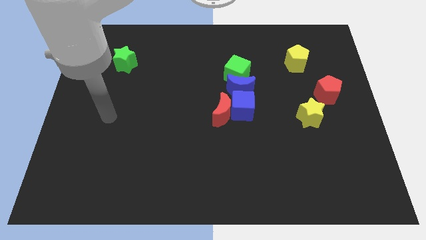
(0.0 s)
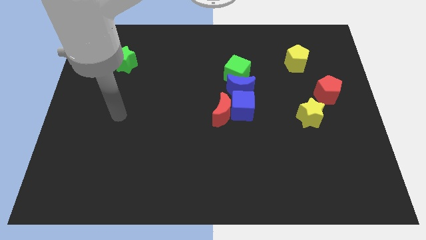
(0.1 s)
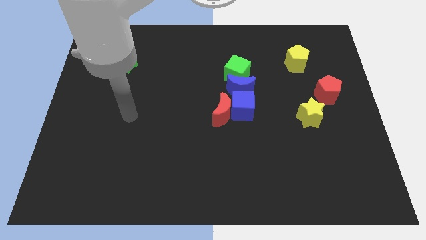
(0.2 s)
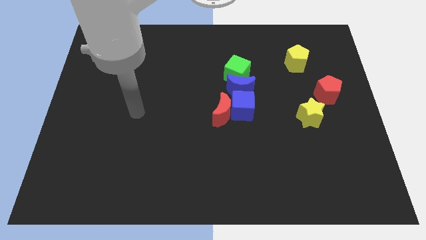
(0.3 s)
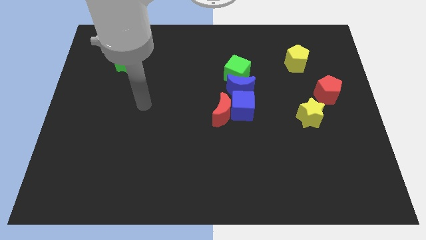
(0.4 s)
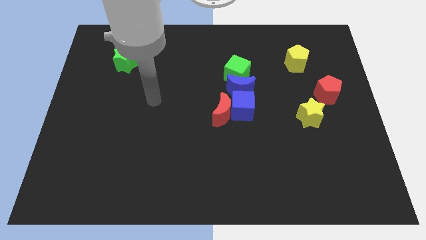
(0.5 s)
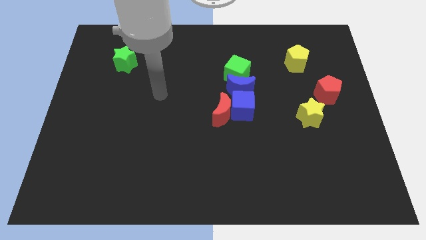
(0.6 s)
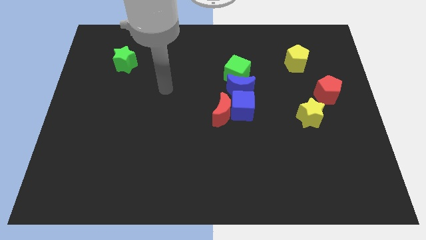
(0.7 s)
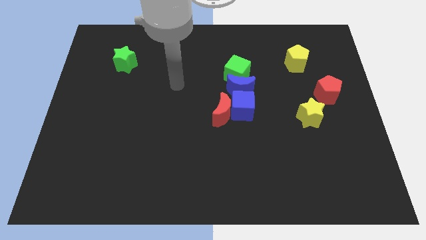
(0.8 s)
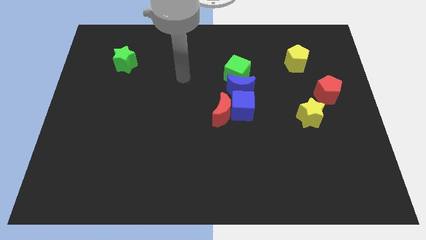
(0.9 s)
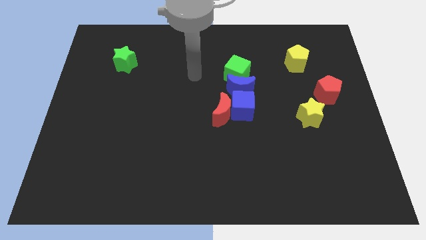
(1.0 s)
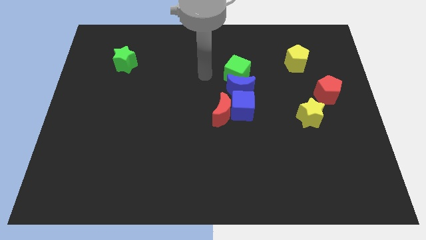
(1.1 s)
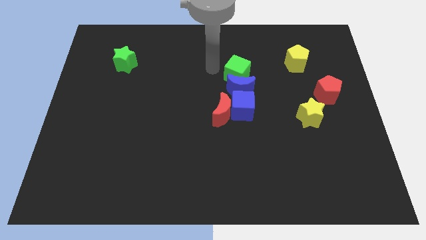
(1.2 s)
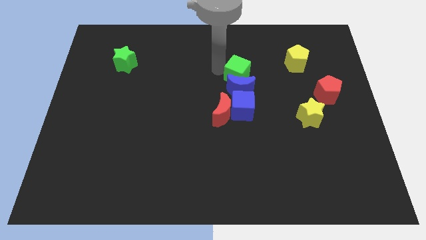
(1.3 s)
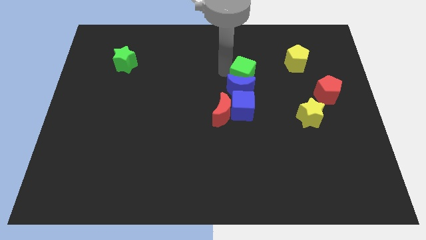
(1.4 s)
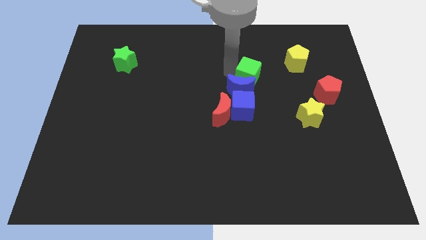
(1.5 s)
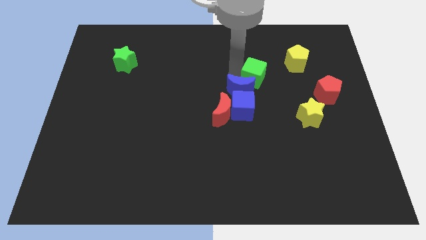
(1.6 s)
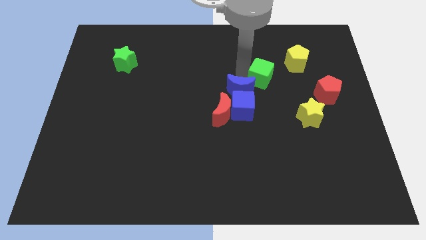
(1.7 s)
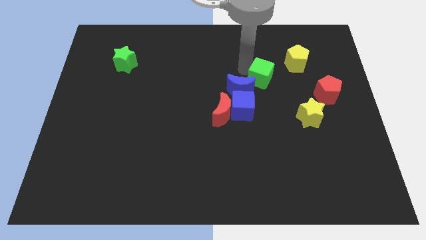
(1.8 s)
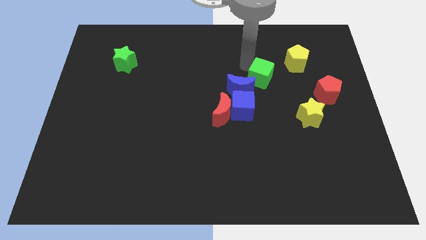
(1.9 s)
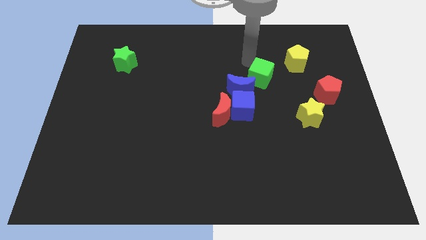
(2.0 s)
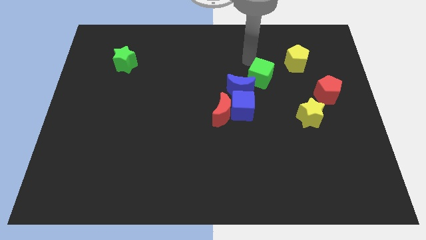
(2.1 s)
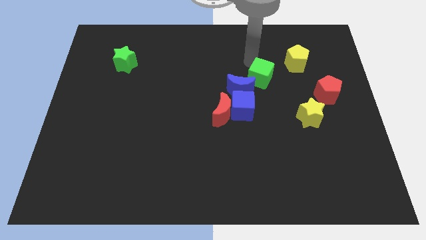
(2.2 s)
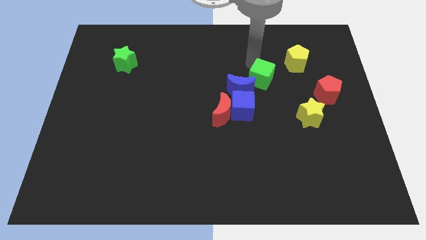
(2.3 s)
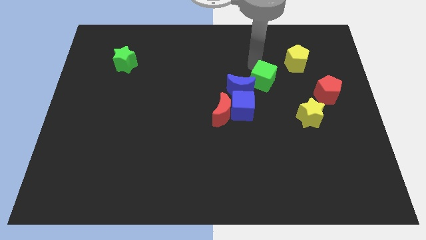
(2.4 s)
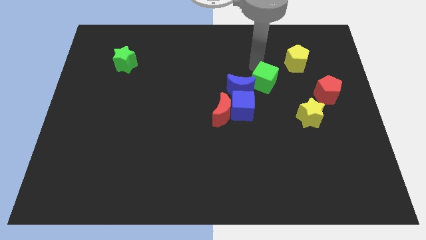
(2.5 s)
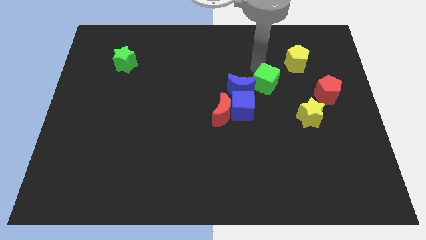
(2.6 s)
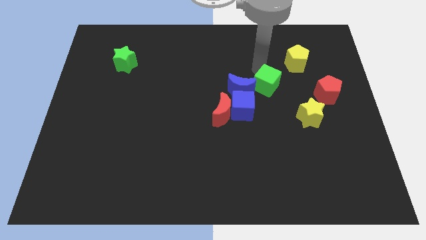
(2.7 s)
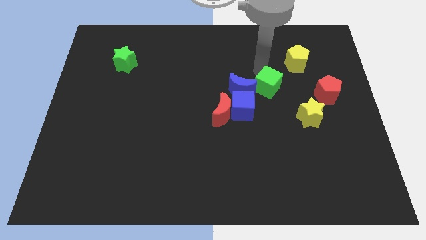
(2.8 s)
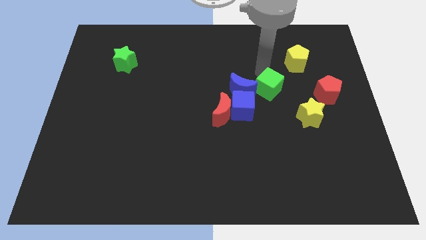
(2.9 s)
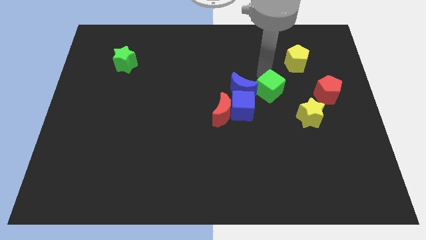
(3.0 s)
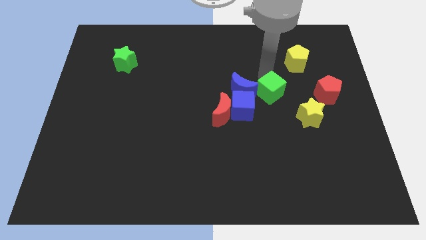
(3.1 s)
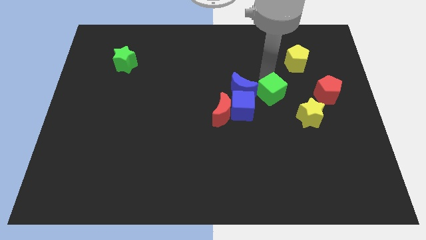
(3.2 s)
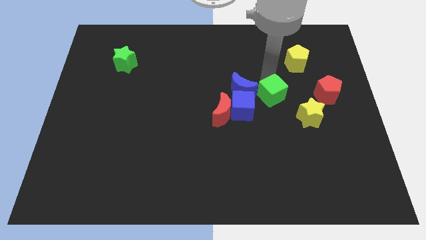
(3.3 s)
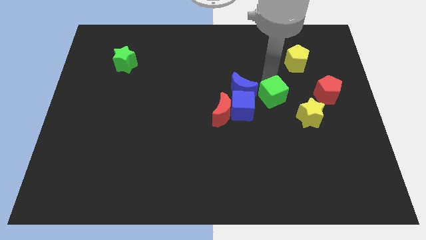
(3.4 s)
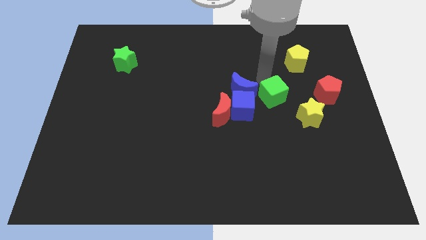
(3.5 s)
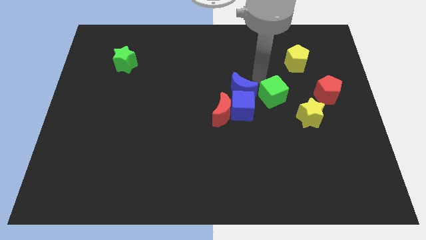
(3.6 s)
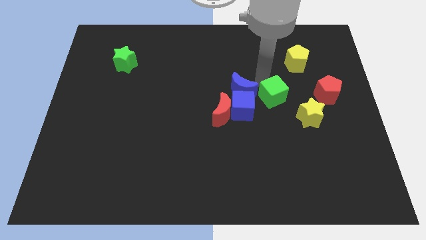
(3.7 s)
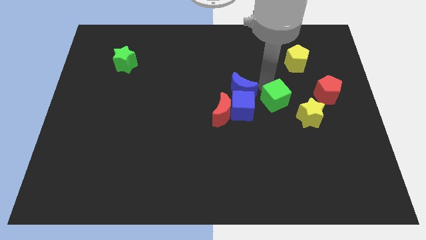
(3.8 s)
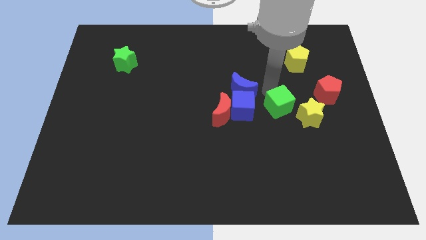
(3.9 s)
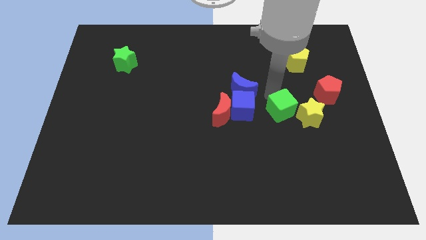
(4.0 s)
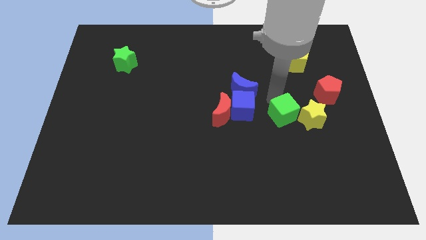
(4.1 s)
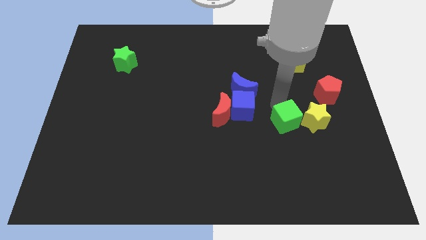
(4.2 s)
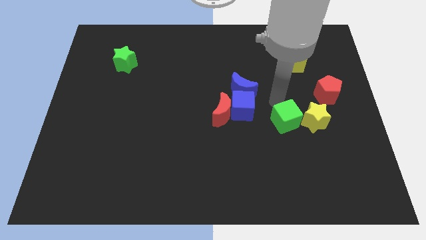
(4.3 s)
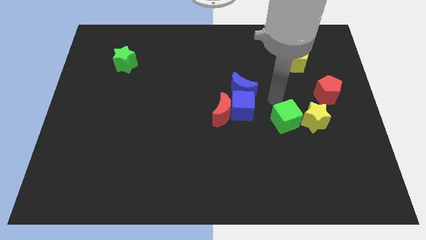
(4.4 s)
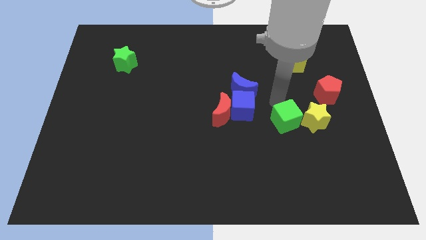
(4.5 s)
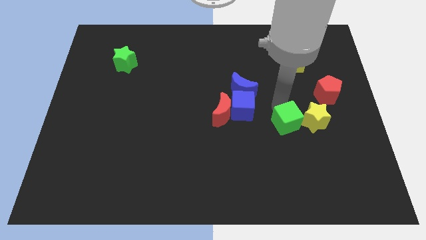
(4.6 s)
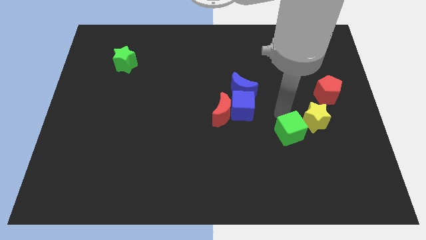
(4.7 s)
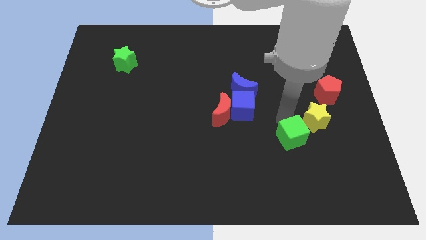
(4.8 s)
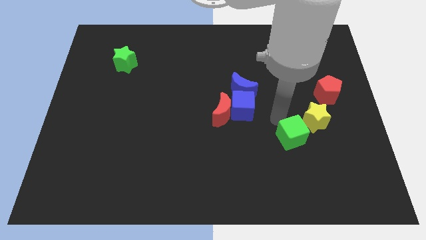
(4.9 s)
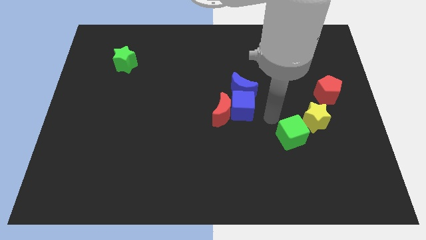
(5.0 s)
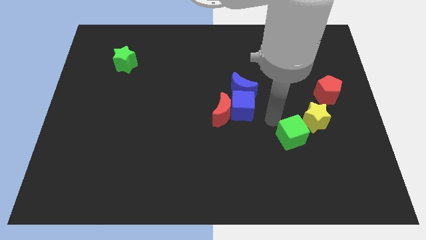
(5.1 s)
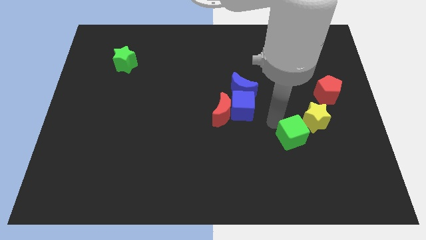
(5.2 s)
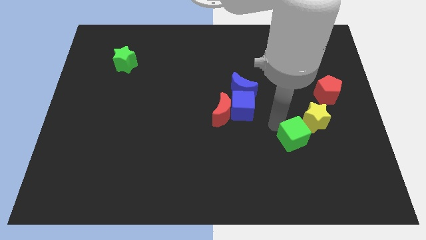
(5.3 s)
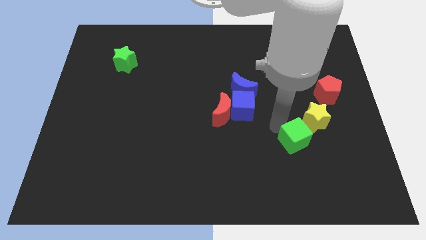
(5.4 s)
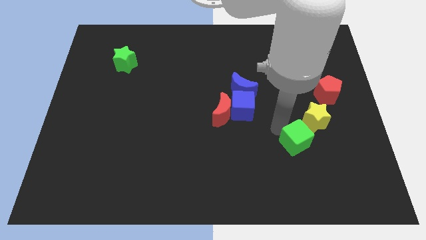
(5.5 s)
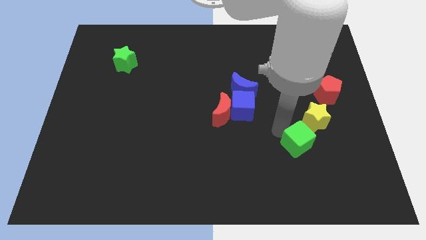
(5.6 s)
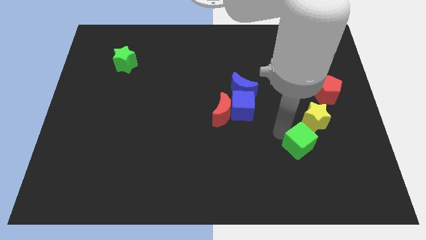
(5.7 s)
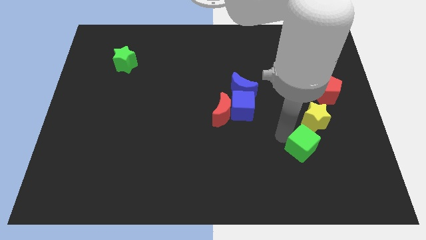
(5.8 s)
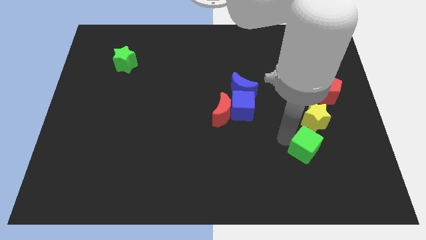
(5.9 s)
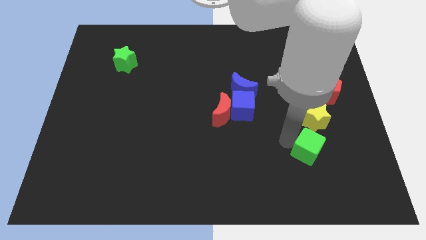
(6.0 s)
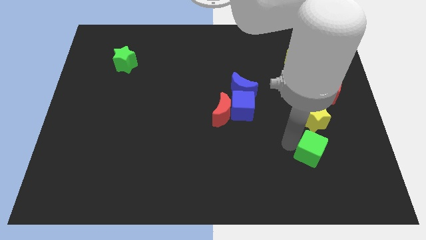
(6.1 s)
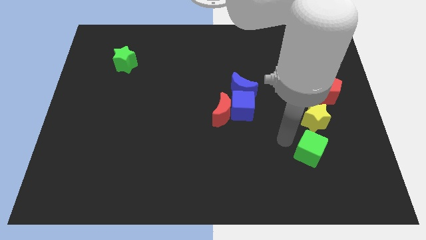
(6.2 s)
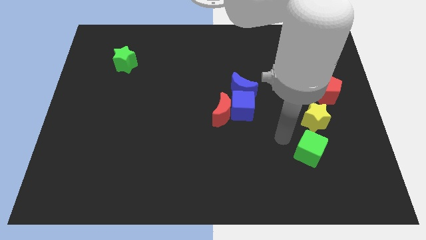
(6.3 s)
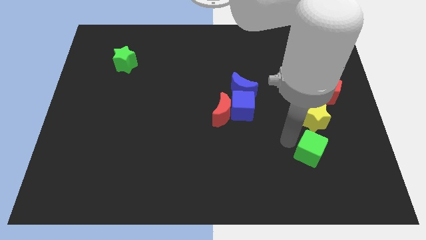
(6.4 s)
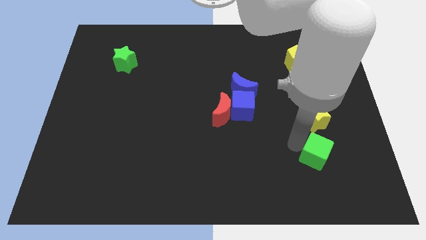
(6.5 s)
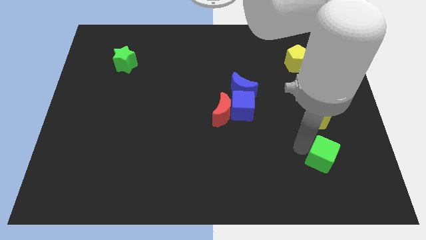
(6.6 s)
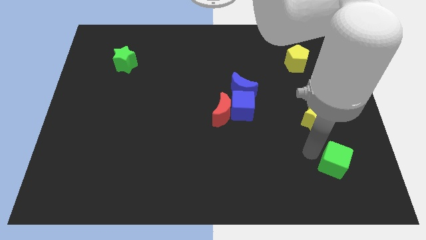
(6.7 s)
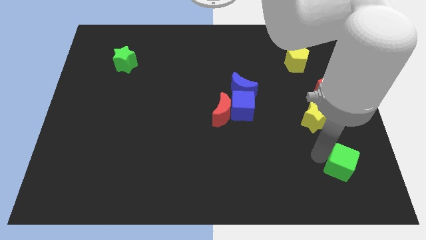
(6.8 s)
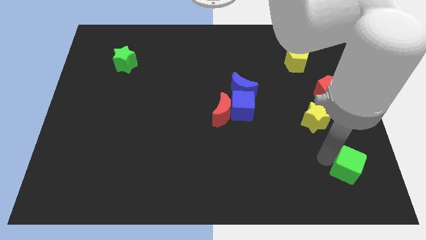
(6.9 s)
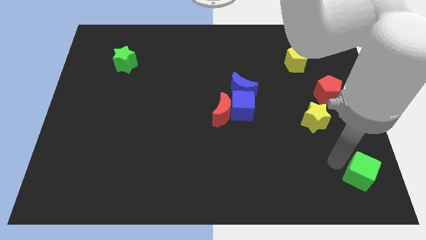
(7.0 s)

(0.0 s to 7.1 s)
move the green cube to the bottom right of the board
